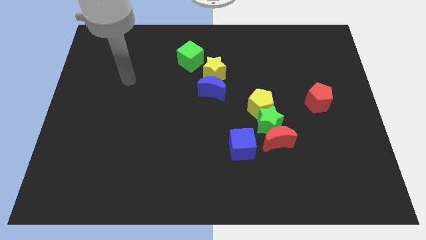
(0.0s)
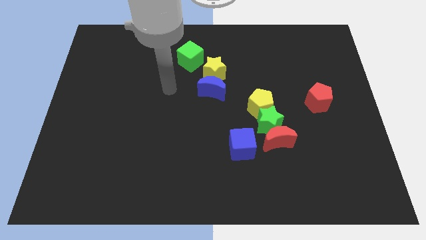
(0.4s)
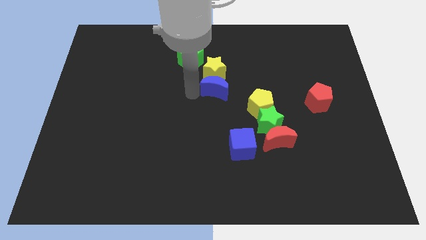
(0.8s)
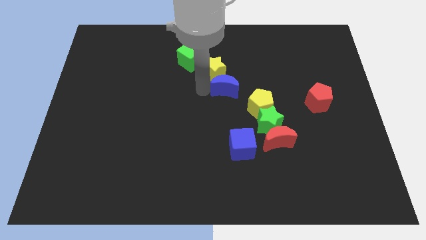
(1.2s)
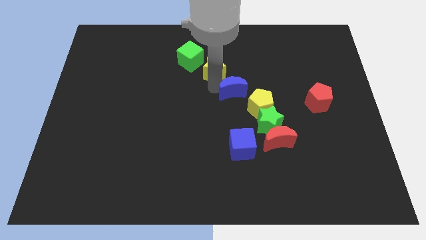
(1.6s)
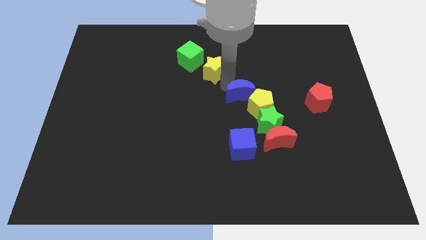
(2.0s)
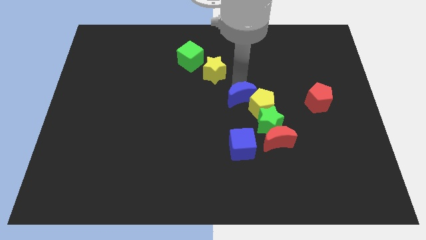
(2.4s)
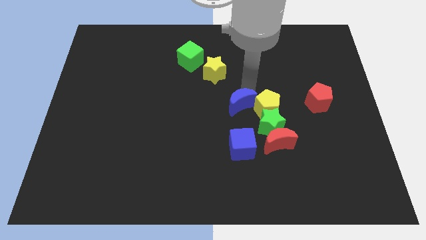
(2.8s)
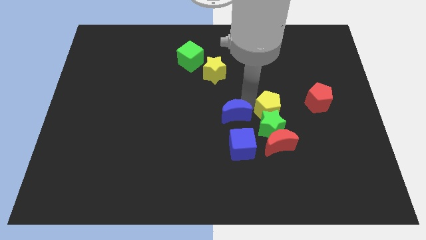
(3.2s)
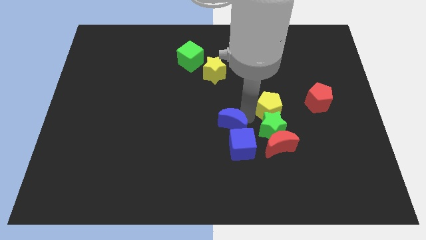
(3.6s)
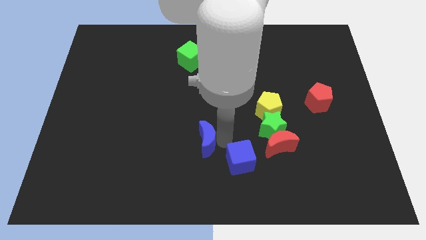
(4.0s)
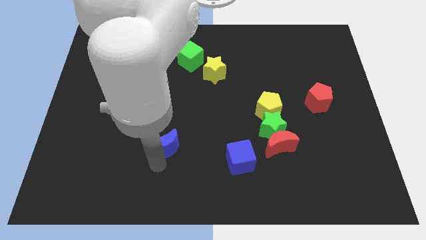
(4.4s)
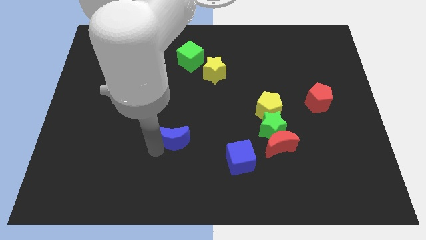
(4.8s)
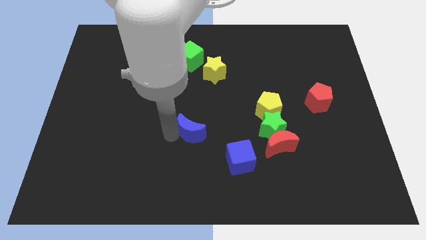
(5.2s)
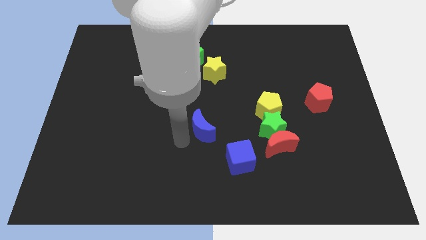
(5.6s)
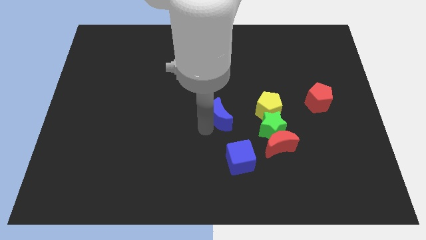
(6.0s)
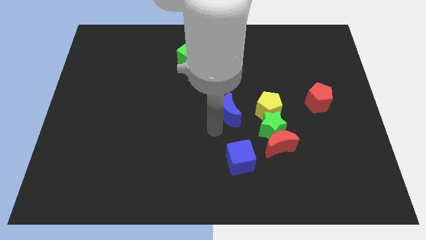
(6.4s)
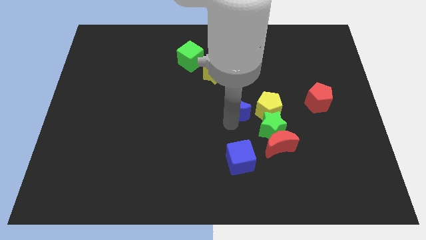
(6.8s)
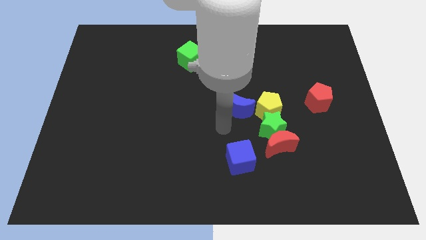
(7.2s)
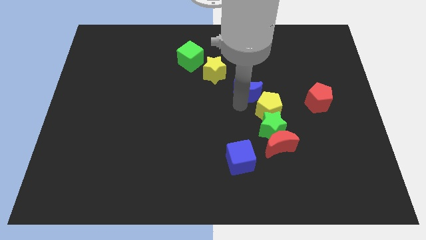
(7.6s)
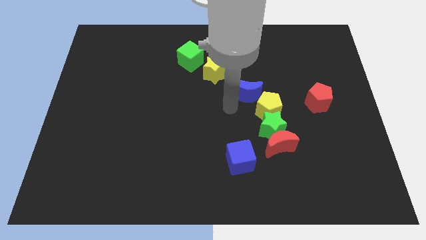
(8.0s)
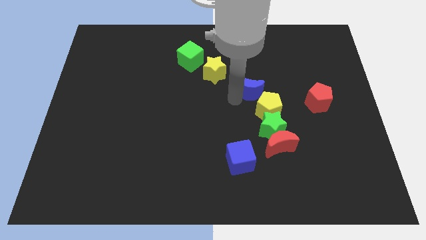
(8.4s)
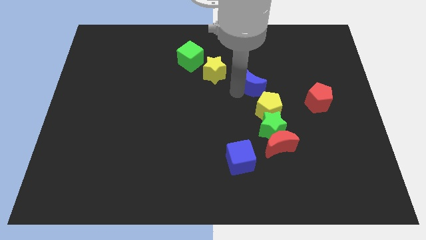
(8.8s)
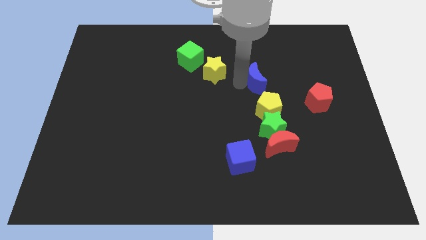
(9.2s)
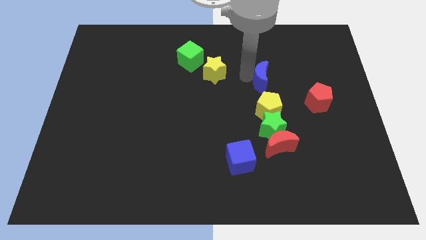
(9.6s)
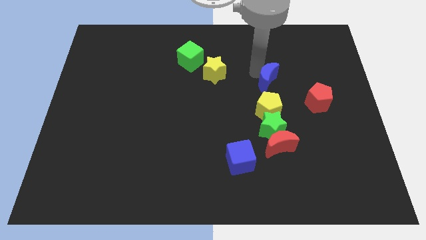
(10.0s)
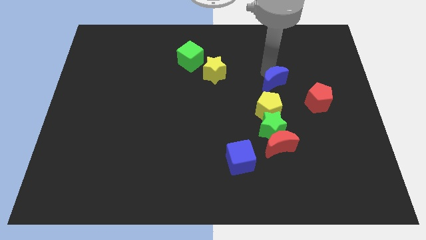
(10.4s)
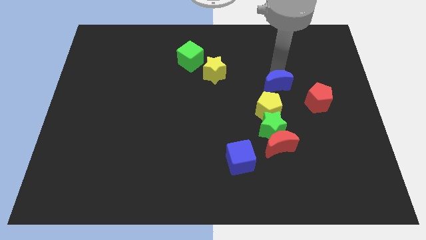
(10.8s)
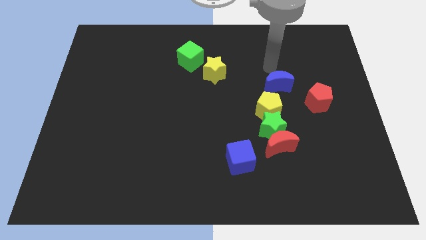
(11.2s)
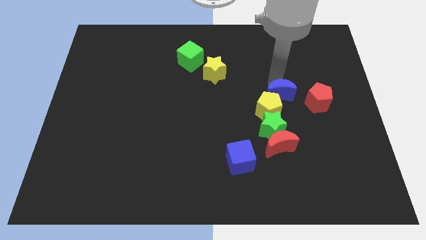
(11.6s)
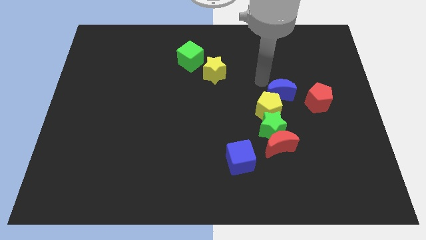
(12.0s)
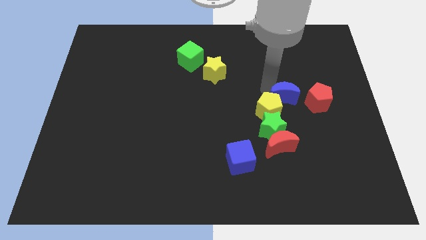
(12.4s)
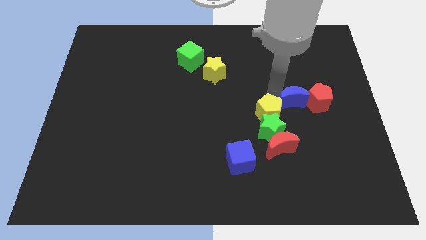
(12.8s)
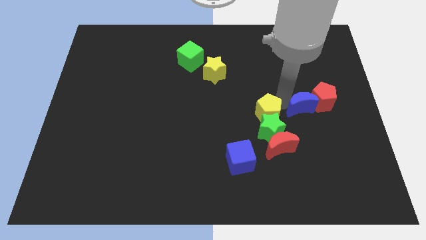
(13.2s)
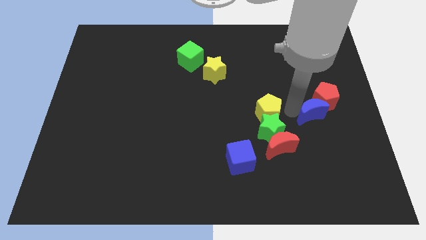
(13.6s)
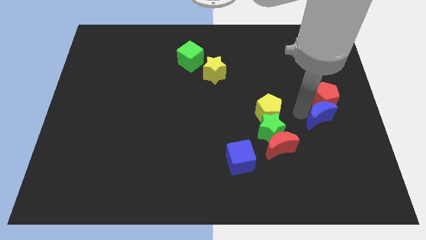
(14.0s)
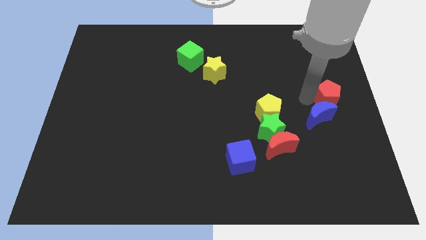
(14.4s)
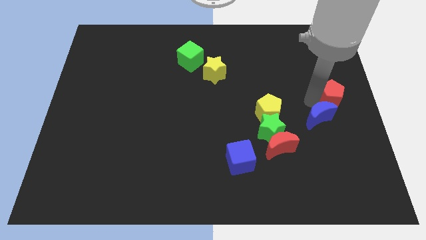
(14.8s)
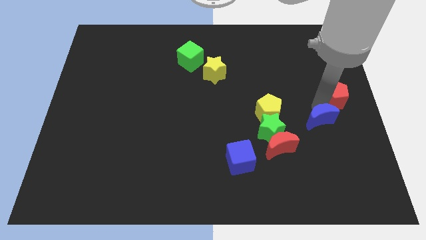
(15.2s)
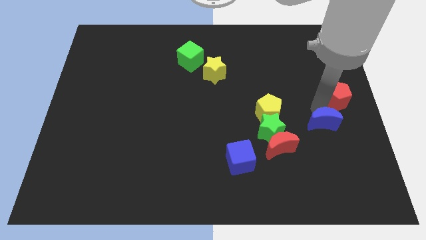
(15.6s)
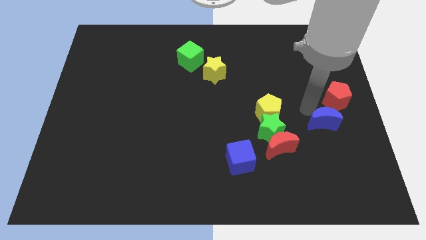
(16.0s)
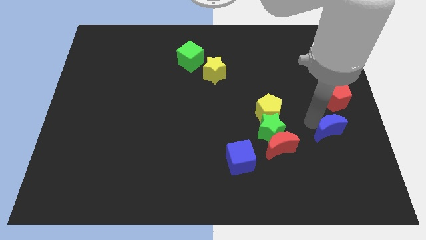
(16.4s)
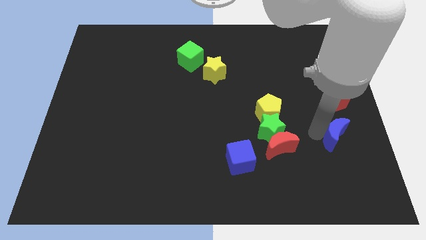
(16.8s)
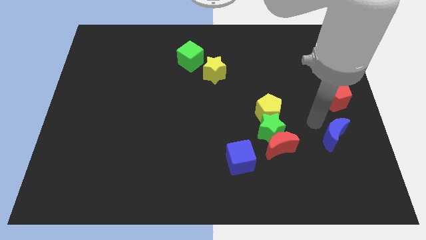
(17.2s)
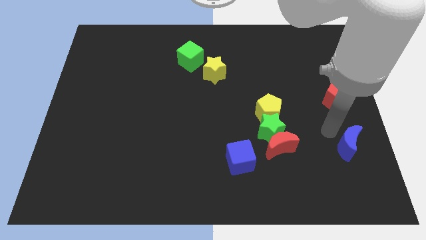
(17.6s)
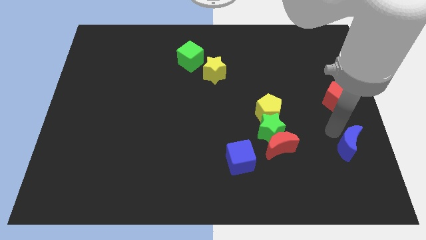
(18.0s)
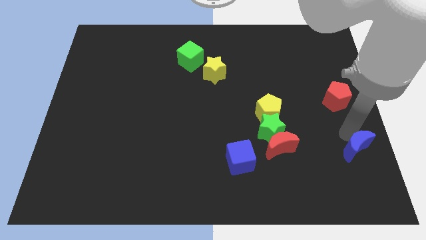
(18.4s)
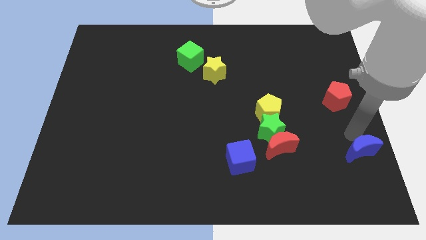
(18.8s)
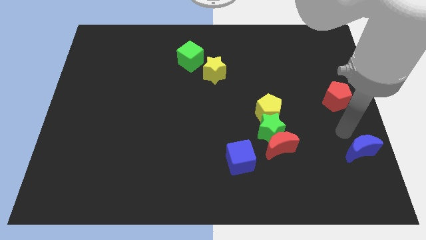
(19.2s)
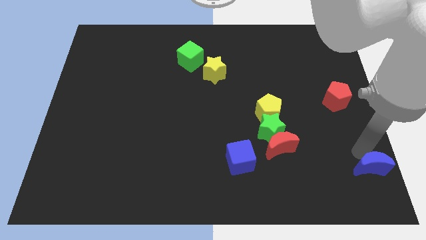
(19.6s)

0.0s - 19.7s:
move the blue moon to the bottom right corner

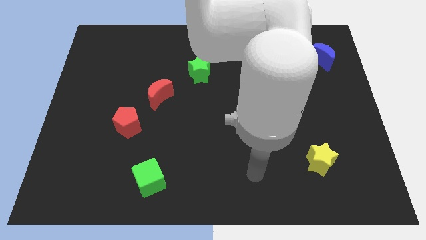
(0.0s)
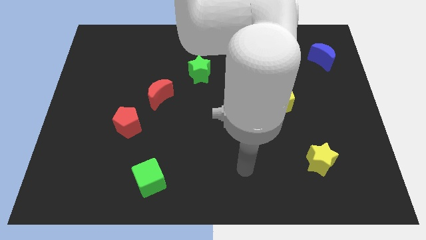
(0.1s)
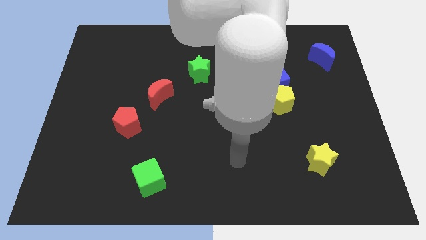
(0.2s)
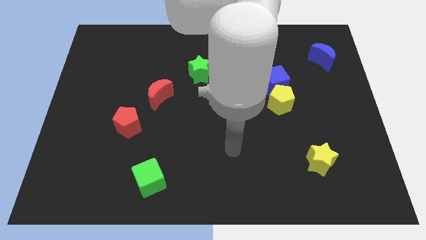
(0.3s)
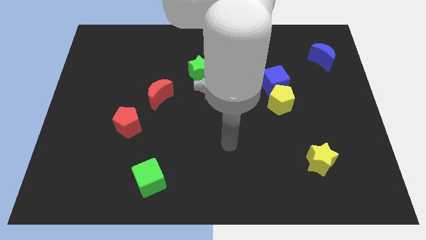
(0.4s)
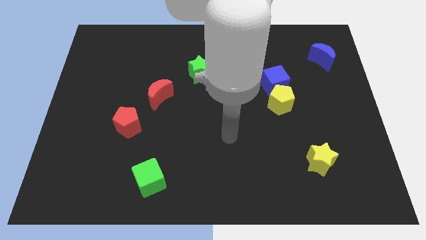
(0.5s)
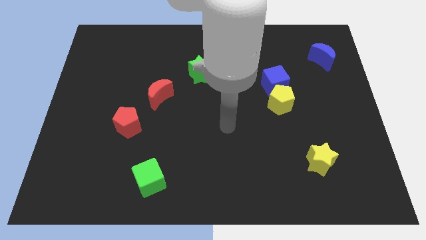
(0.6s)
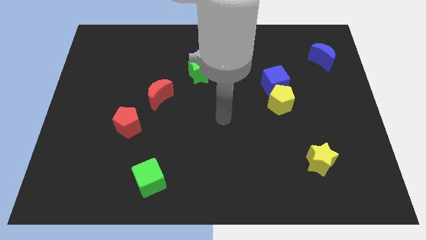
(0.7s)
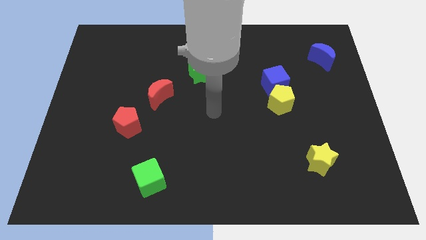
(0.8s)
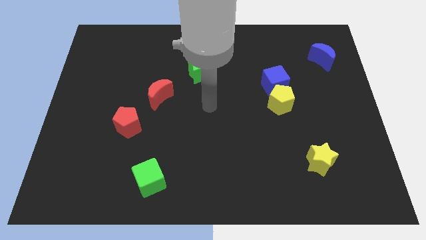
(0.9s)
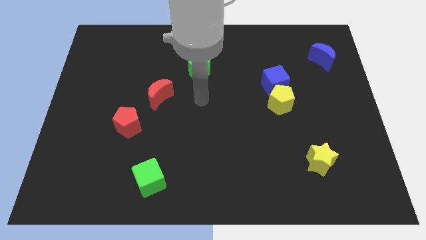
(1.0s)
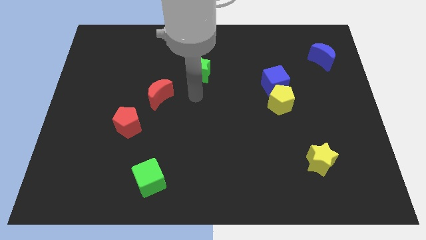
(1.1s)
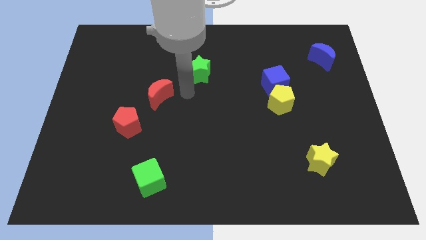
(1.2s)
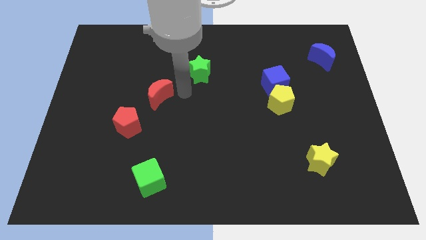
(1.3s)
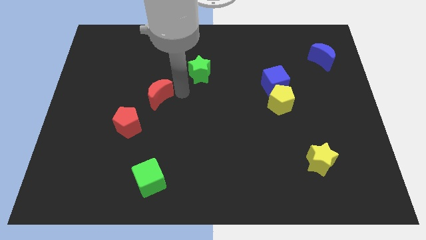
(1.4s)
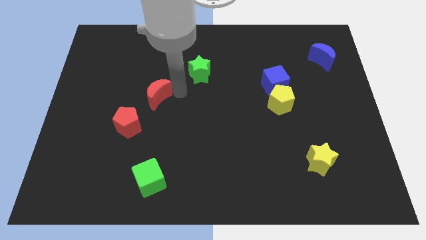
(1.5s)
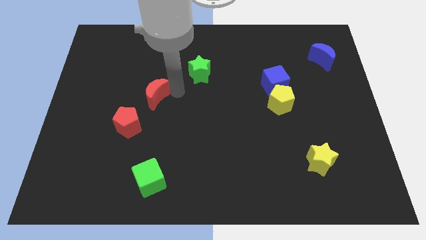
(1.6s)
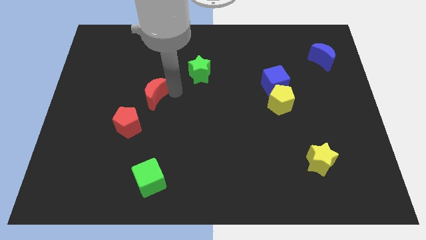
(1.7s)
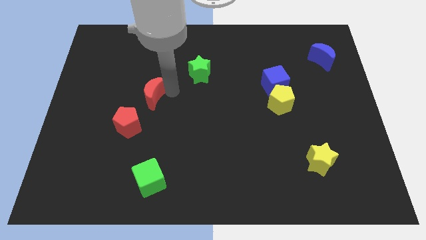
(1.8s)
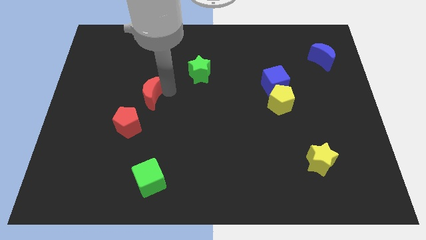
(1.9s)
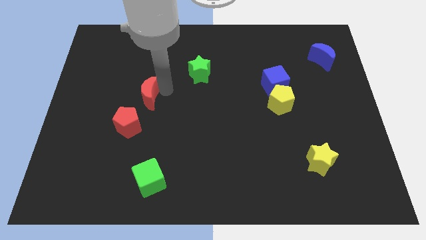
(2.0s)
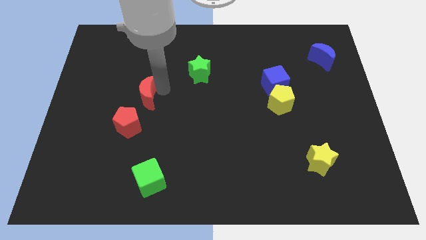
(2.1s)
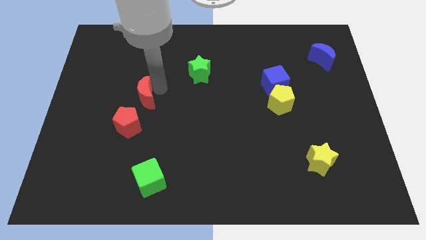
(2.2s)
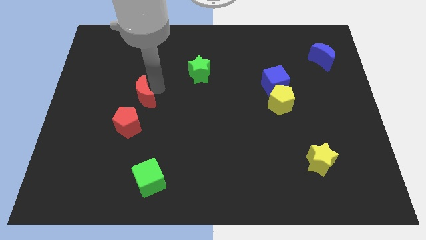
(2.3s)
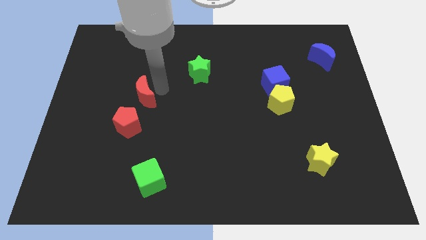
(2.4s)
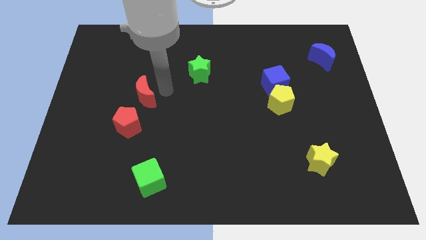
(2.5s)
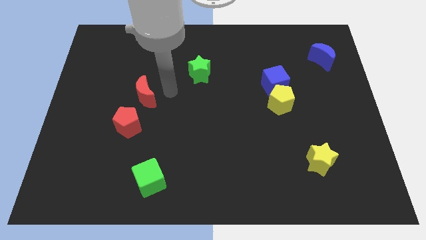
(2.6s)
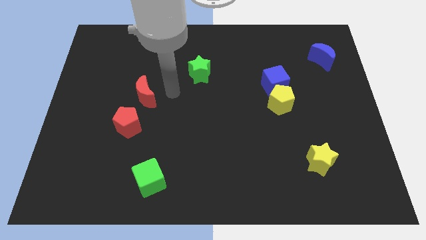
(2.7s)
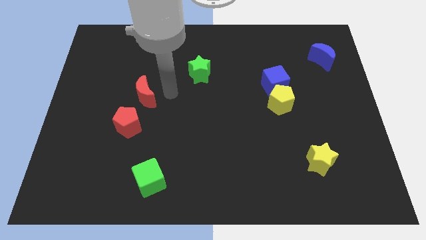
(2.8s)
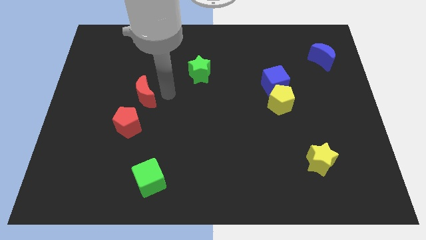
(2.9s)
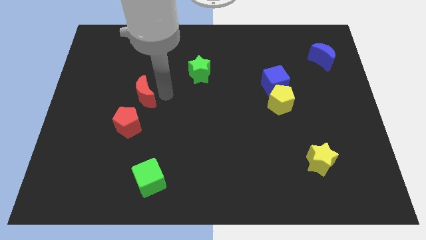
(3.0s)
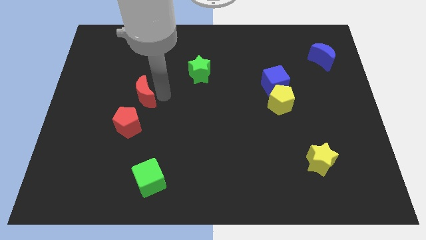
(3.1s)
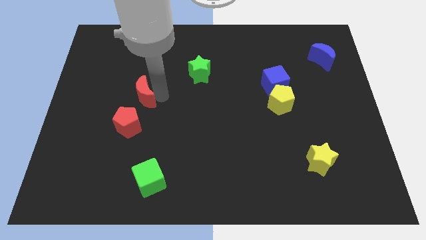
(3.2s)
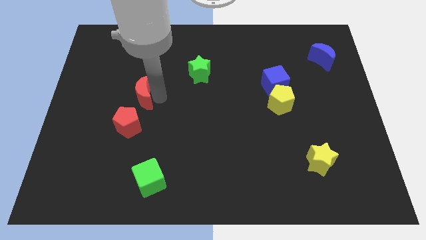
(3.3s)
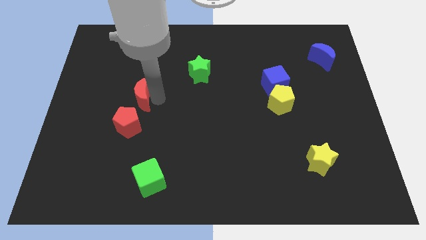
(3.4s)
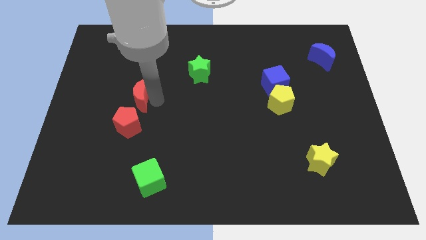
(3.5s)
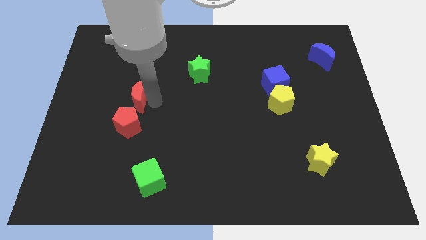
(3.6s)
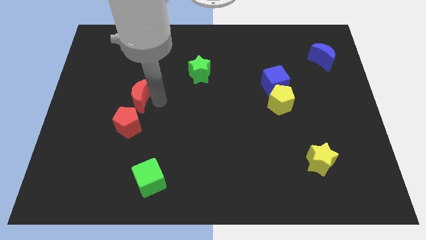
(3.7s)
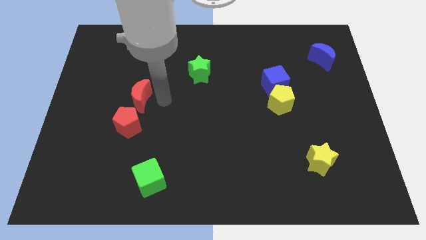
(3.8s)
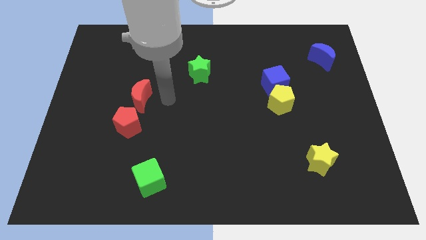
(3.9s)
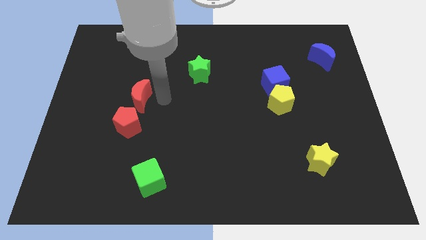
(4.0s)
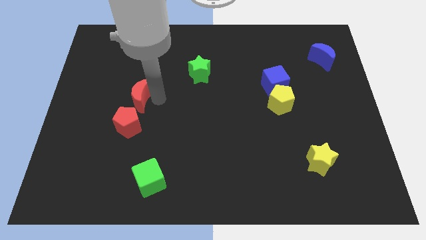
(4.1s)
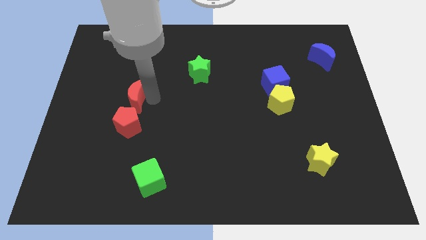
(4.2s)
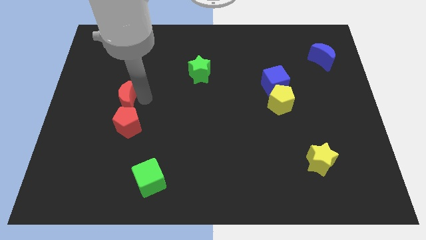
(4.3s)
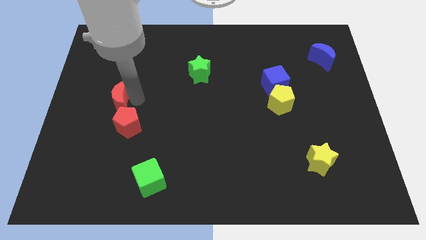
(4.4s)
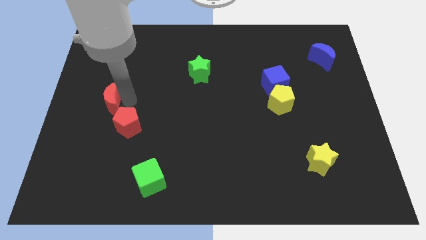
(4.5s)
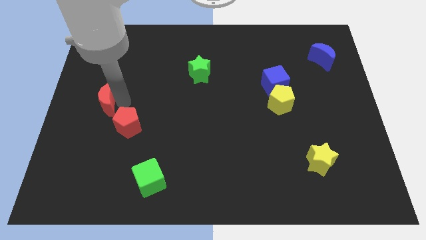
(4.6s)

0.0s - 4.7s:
slide the red moon to the center left
